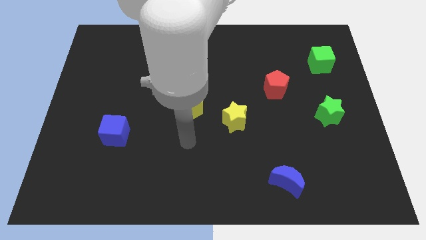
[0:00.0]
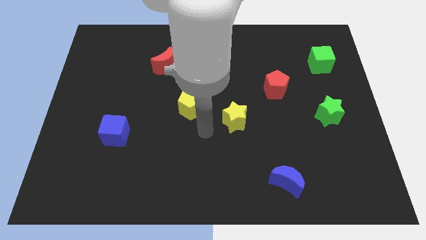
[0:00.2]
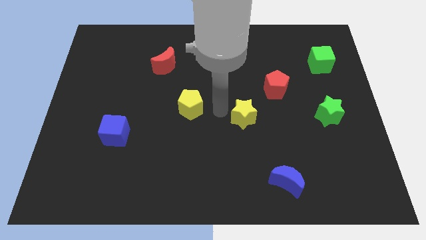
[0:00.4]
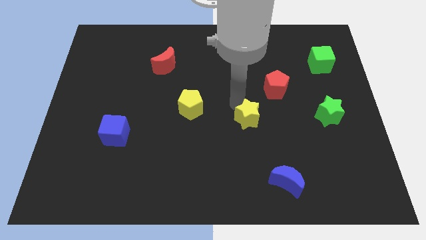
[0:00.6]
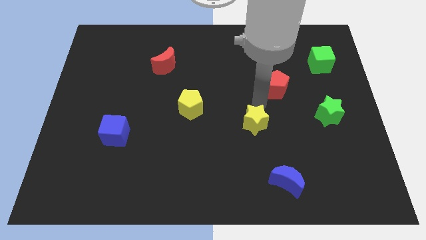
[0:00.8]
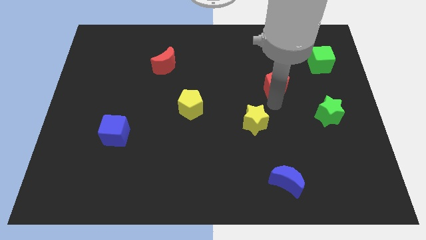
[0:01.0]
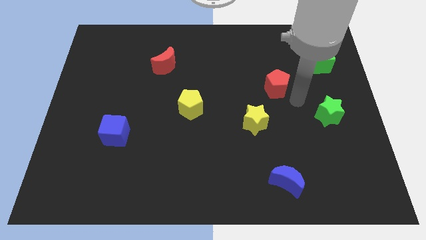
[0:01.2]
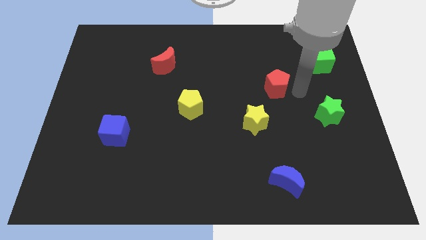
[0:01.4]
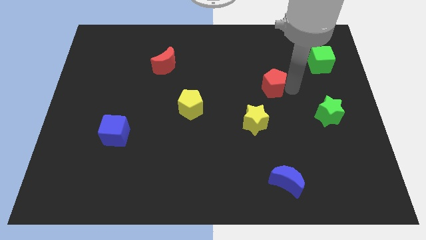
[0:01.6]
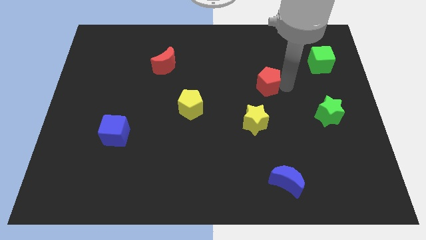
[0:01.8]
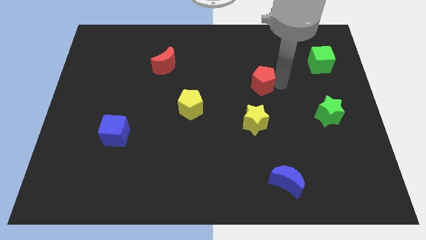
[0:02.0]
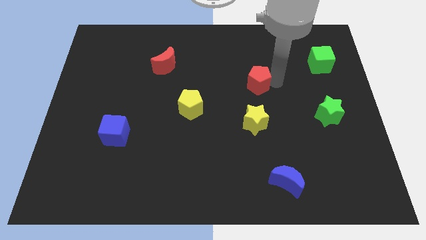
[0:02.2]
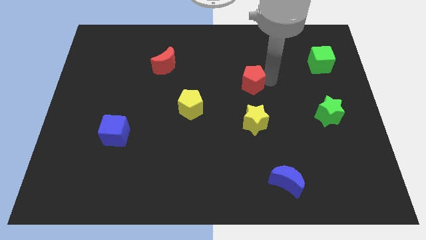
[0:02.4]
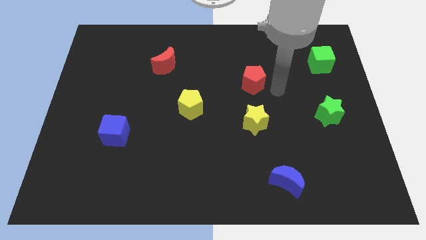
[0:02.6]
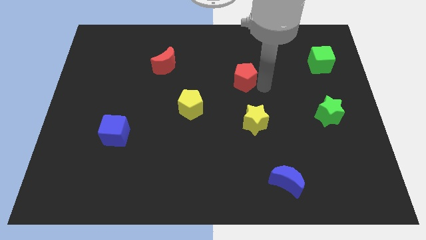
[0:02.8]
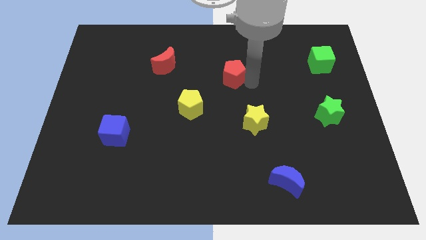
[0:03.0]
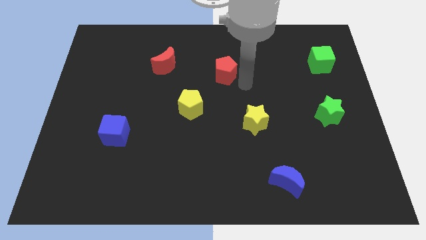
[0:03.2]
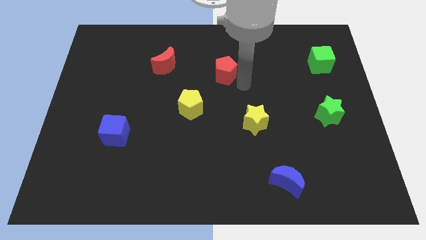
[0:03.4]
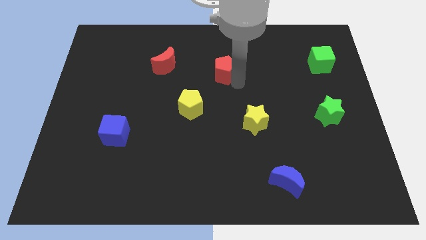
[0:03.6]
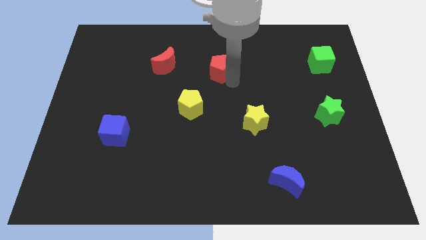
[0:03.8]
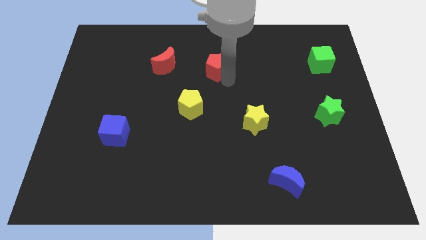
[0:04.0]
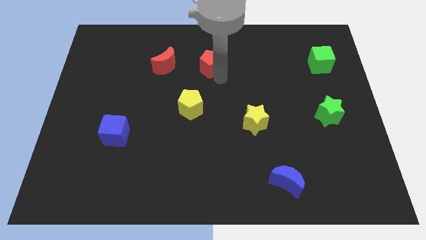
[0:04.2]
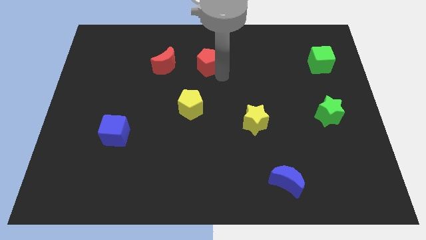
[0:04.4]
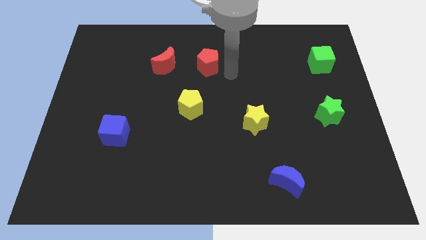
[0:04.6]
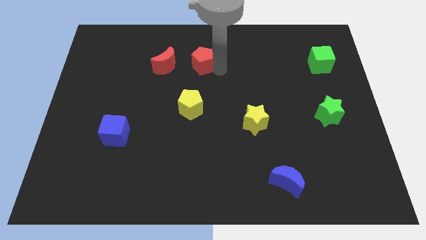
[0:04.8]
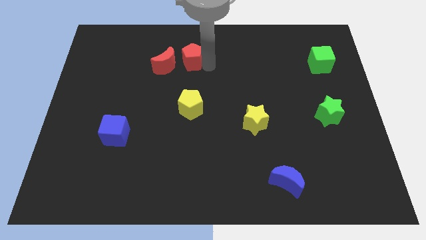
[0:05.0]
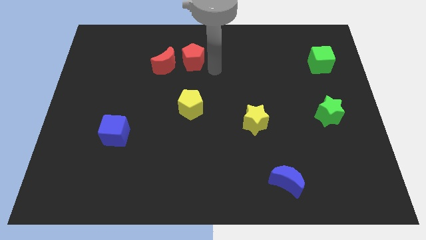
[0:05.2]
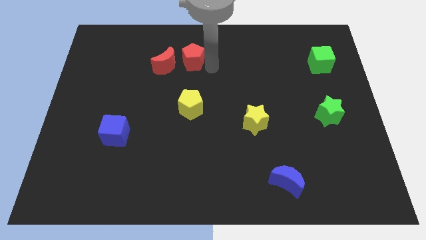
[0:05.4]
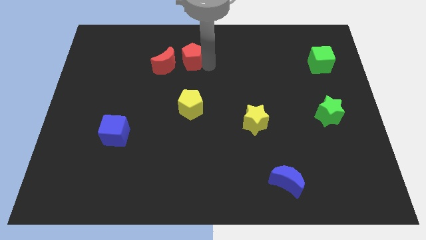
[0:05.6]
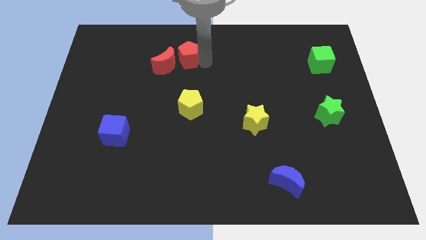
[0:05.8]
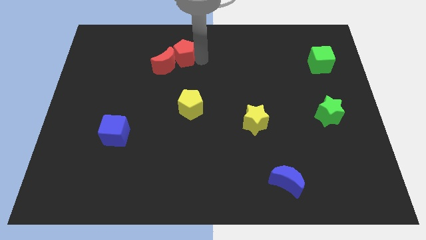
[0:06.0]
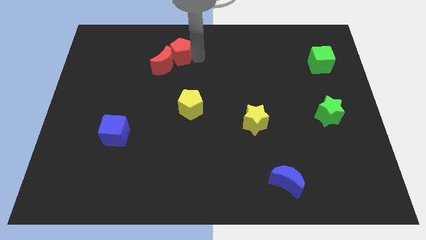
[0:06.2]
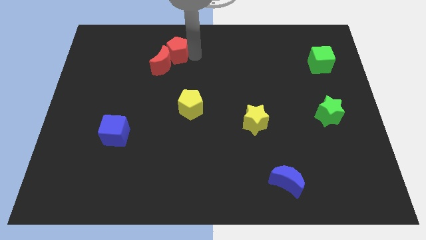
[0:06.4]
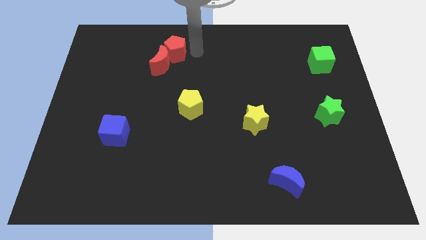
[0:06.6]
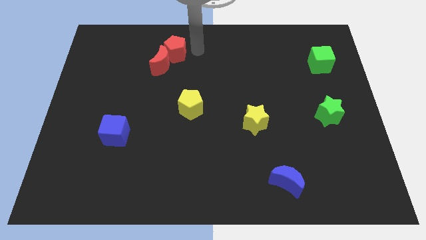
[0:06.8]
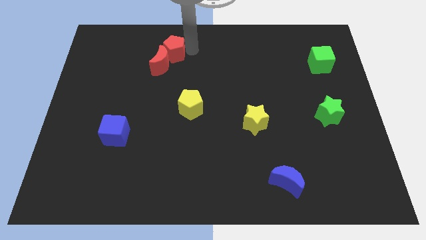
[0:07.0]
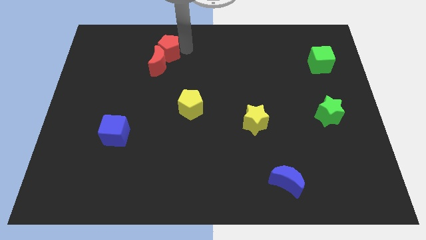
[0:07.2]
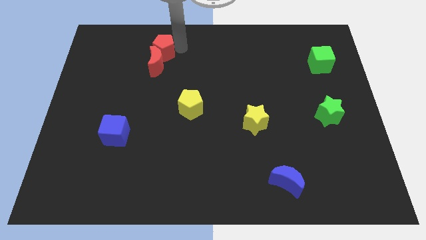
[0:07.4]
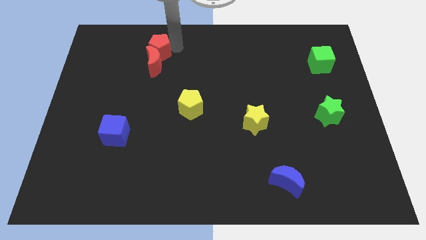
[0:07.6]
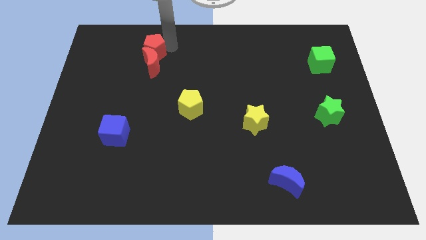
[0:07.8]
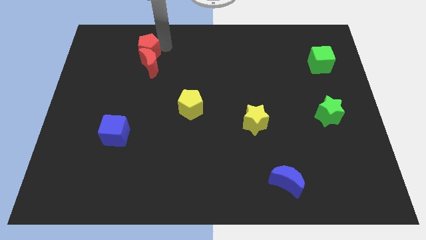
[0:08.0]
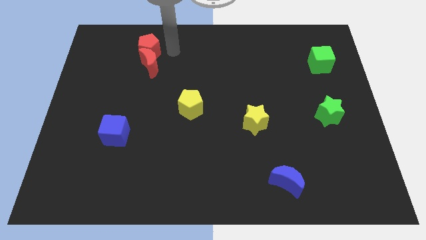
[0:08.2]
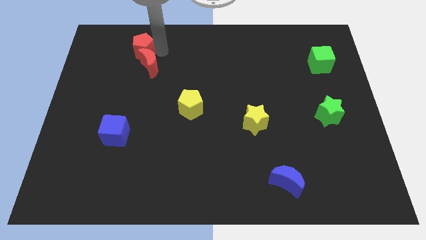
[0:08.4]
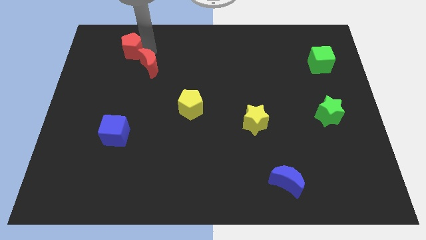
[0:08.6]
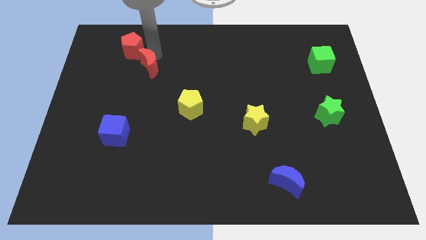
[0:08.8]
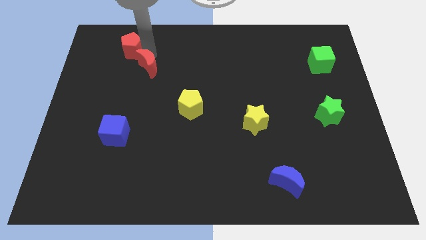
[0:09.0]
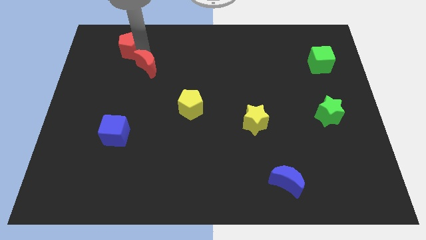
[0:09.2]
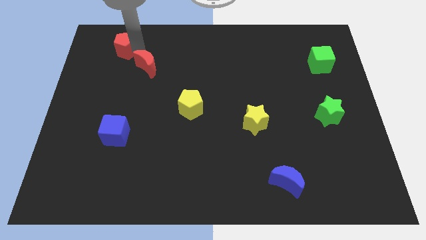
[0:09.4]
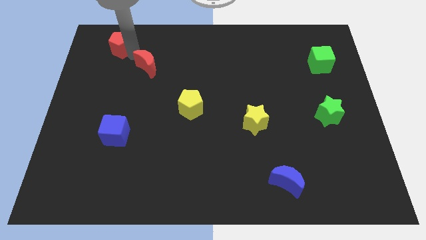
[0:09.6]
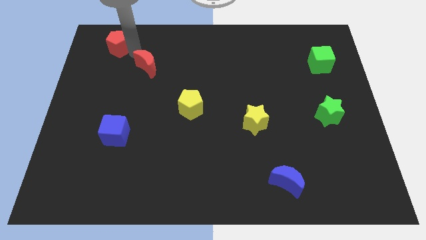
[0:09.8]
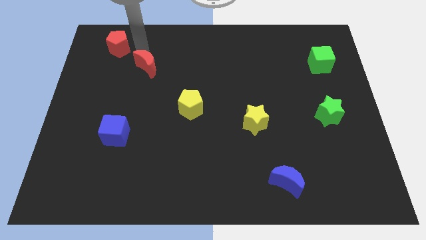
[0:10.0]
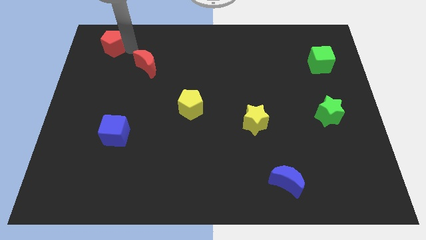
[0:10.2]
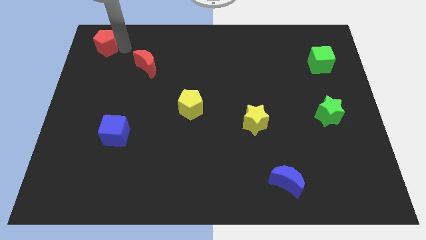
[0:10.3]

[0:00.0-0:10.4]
put the red pentagon to the top left of the board

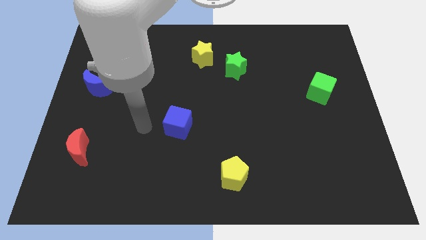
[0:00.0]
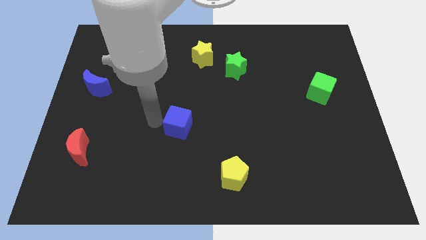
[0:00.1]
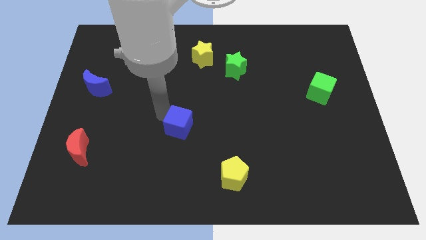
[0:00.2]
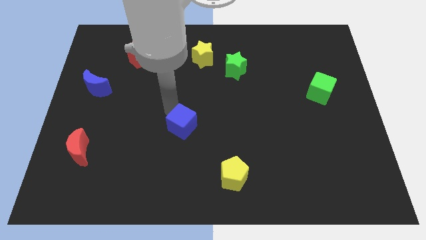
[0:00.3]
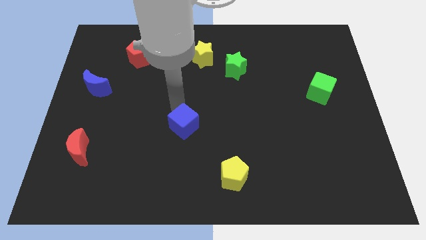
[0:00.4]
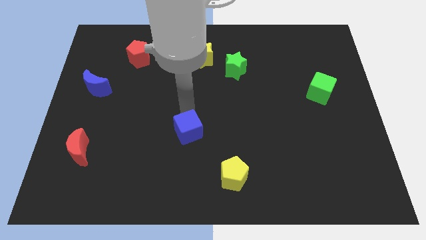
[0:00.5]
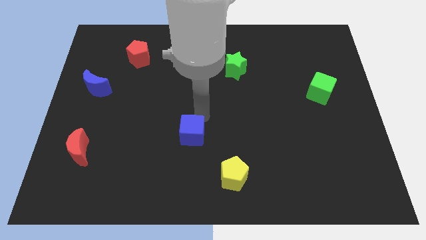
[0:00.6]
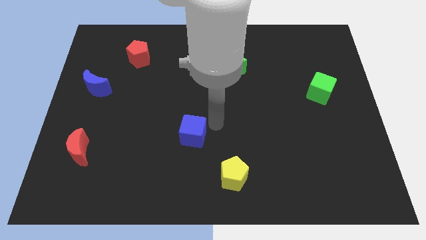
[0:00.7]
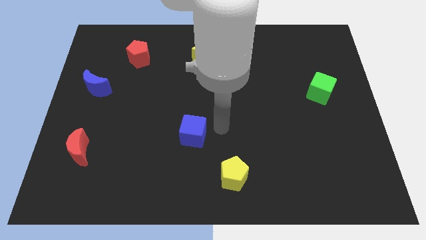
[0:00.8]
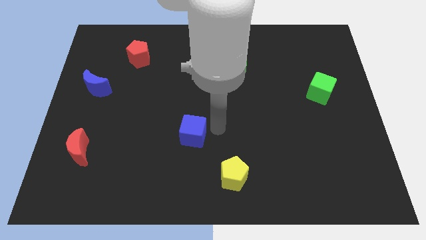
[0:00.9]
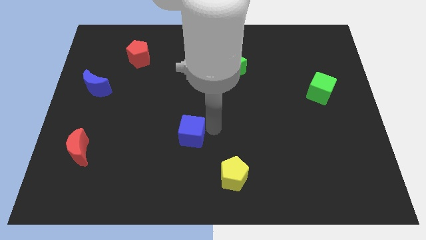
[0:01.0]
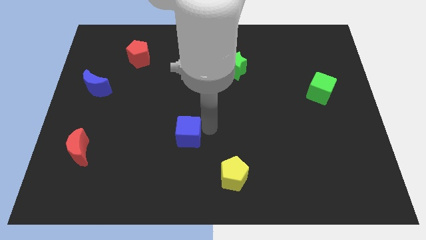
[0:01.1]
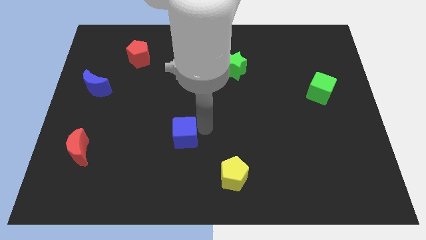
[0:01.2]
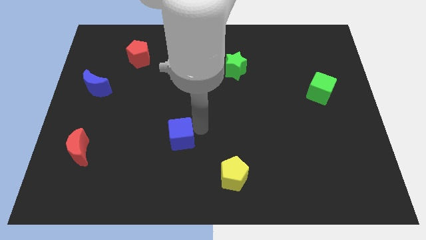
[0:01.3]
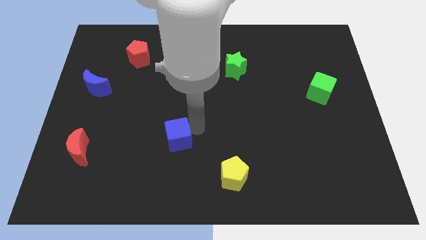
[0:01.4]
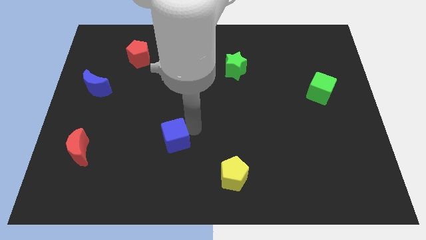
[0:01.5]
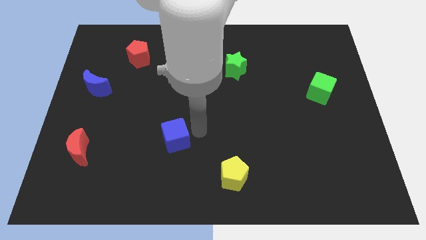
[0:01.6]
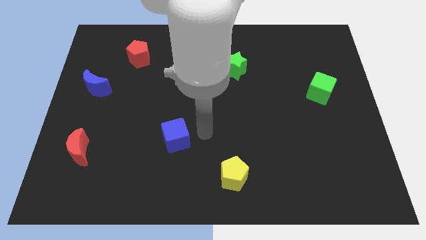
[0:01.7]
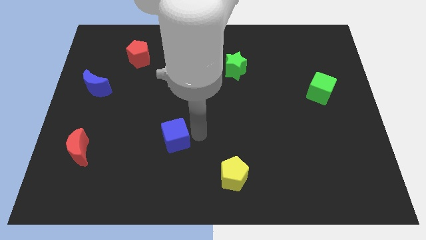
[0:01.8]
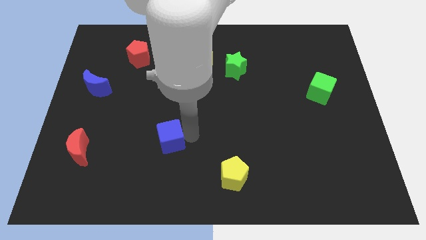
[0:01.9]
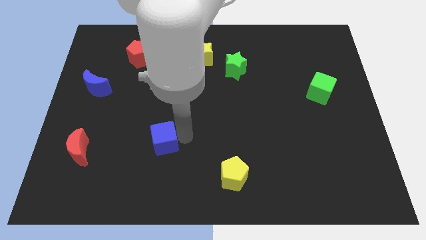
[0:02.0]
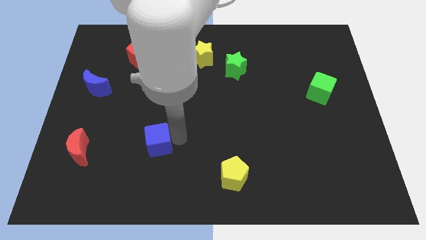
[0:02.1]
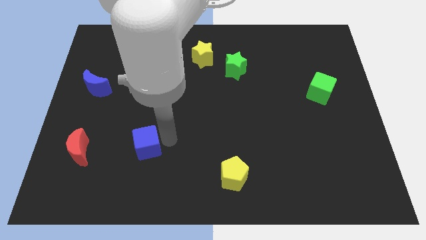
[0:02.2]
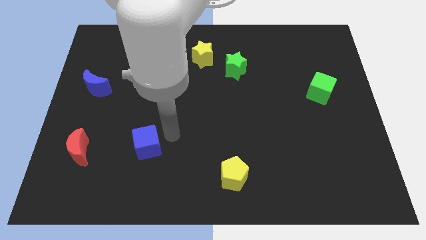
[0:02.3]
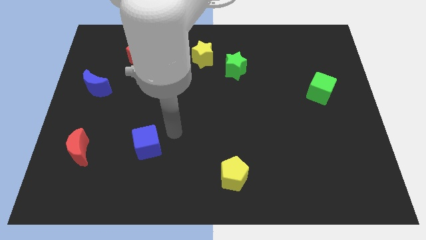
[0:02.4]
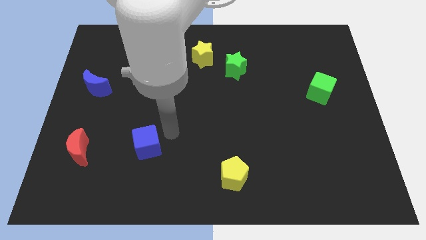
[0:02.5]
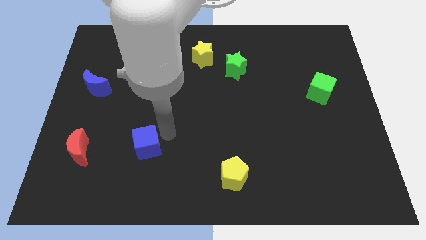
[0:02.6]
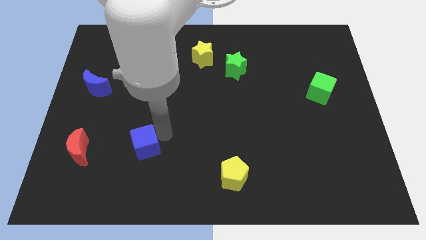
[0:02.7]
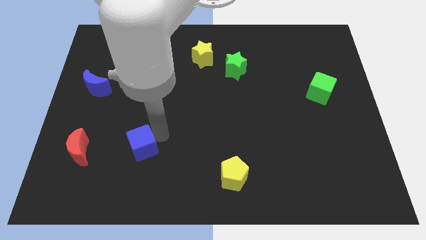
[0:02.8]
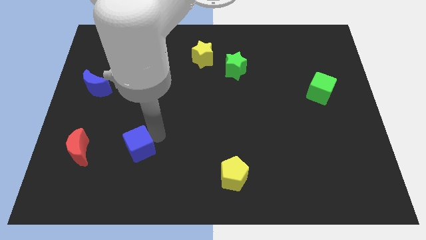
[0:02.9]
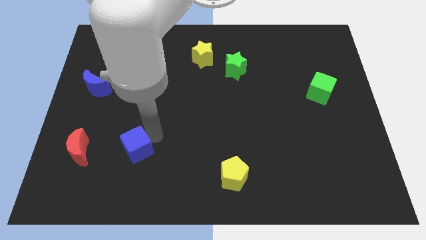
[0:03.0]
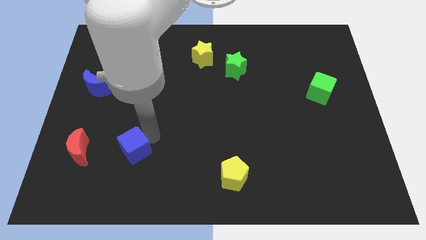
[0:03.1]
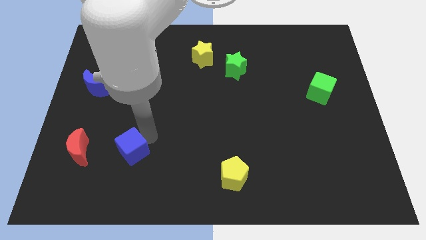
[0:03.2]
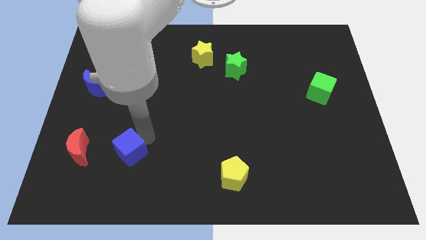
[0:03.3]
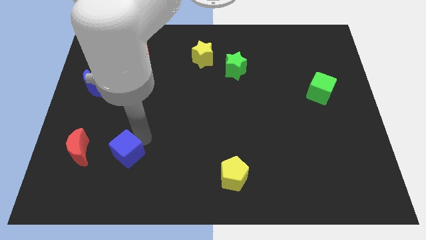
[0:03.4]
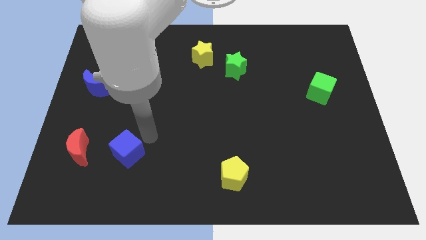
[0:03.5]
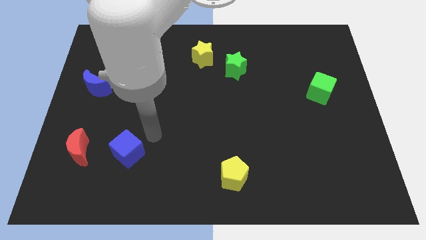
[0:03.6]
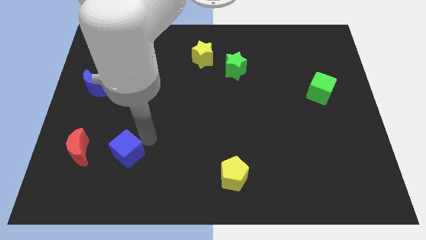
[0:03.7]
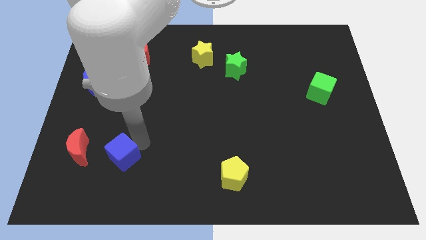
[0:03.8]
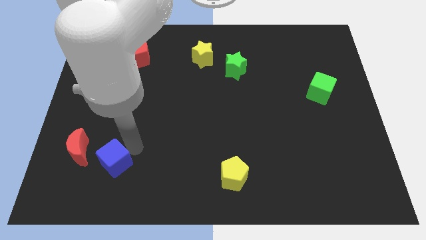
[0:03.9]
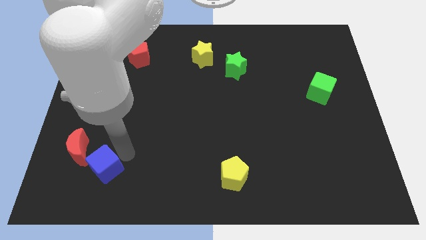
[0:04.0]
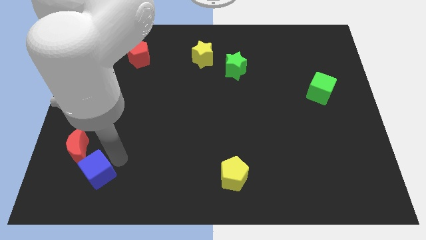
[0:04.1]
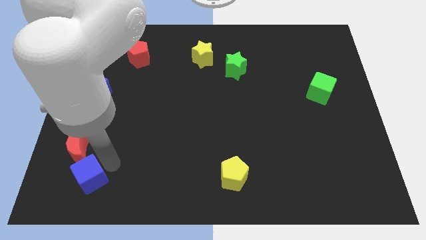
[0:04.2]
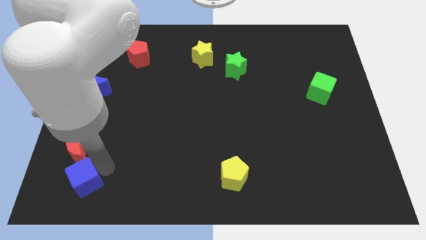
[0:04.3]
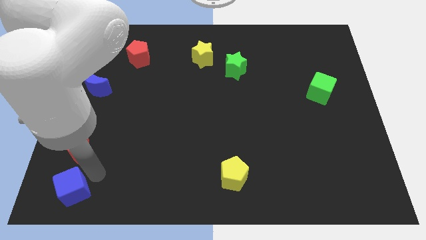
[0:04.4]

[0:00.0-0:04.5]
push the blue cube to the bottom left corner
